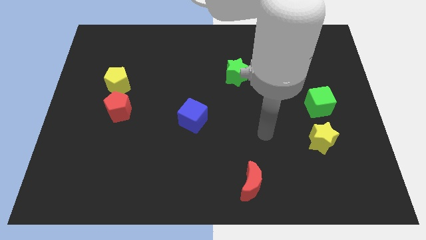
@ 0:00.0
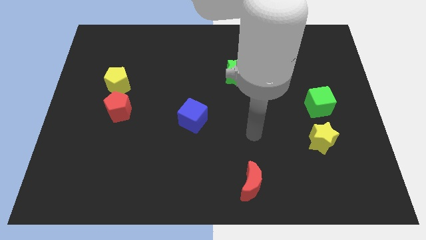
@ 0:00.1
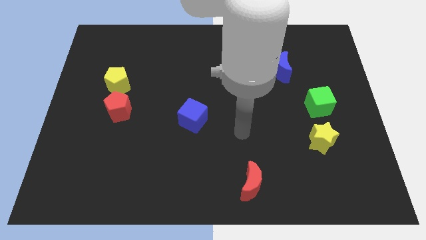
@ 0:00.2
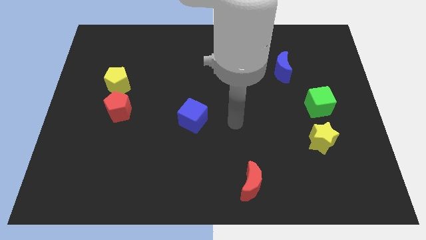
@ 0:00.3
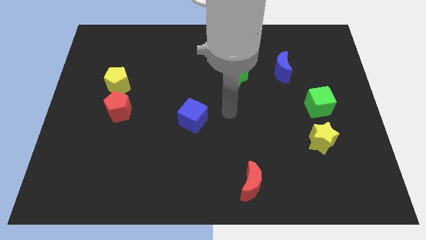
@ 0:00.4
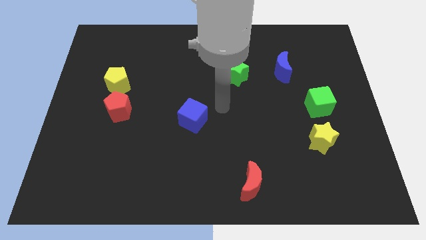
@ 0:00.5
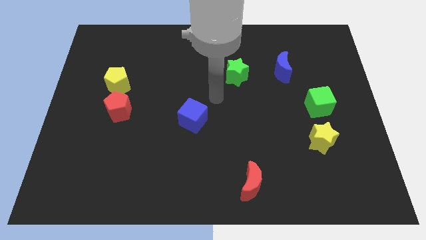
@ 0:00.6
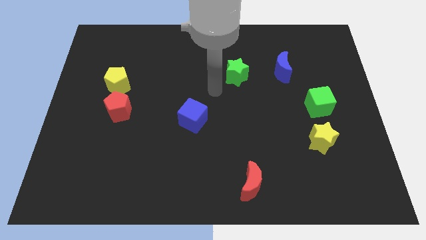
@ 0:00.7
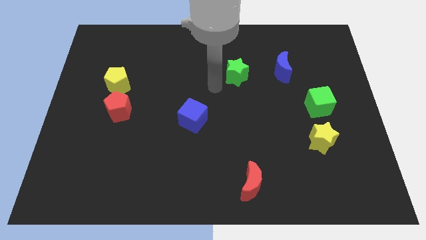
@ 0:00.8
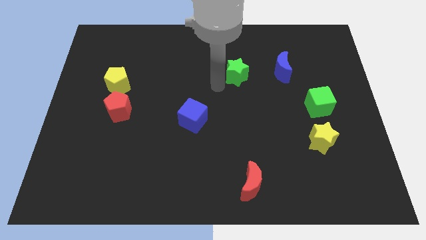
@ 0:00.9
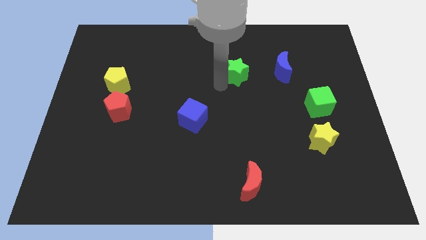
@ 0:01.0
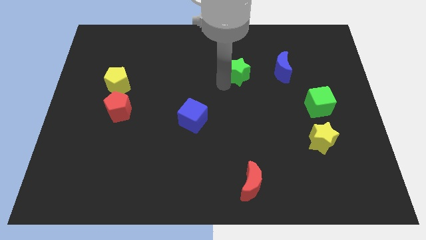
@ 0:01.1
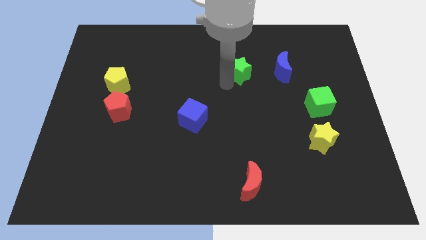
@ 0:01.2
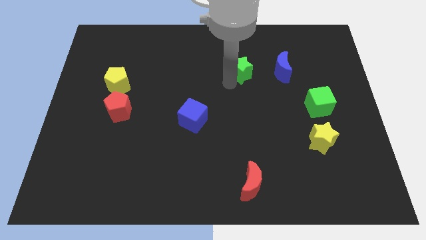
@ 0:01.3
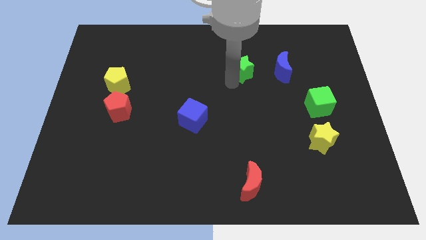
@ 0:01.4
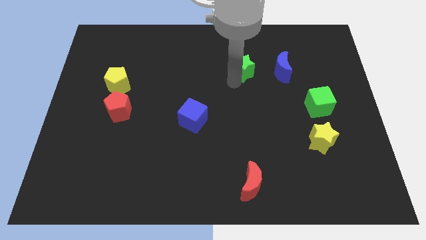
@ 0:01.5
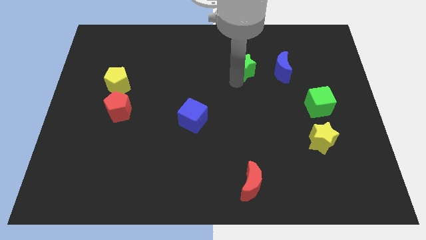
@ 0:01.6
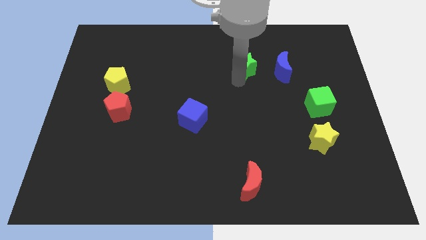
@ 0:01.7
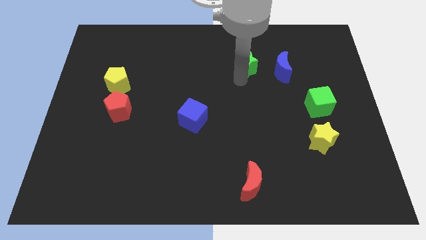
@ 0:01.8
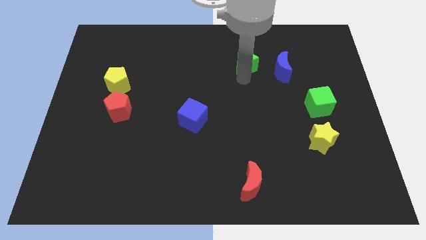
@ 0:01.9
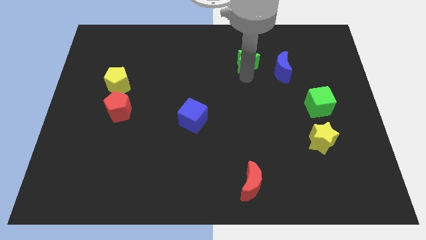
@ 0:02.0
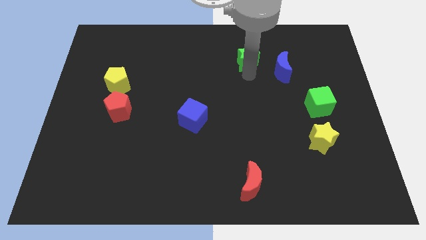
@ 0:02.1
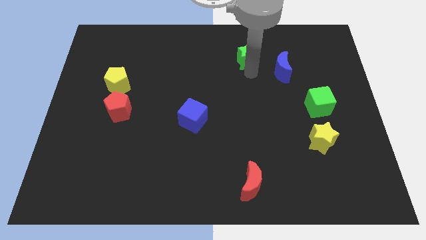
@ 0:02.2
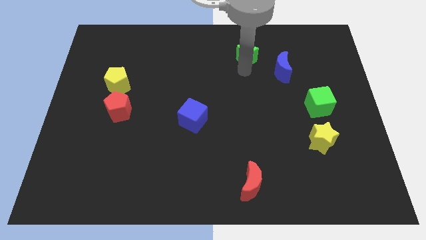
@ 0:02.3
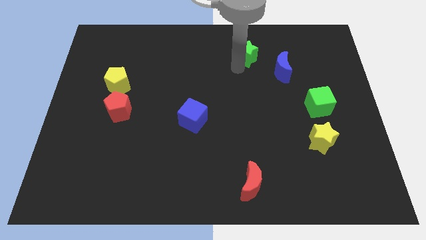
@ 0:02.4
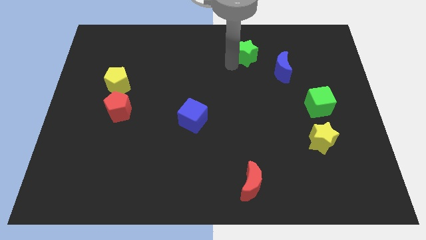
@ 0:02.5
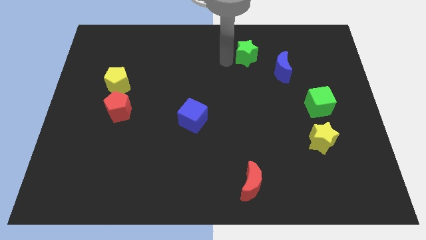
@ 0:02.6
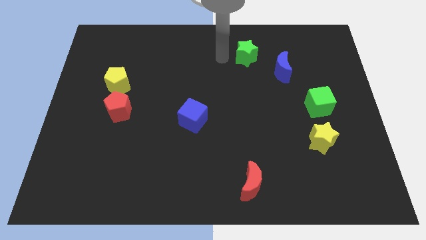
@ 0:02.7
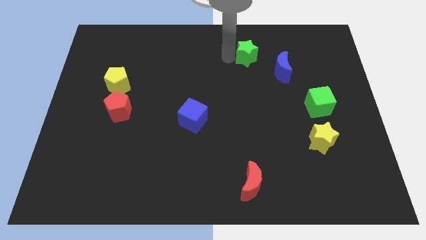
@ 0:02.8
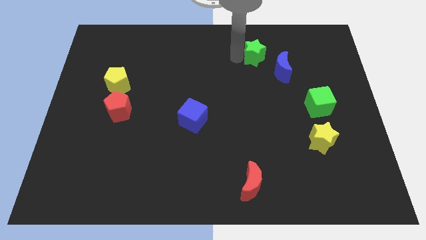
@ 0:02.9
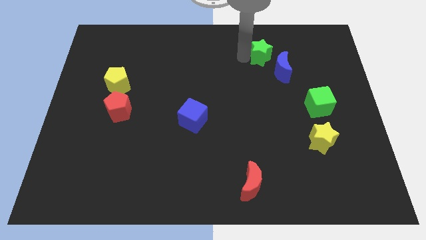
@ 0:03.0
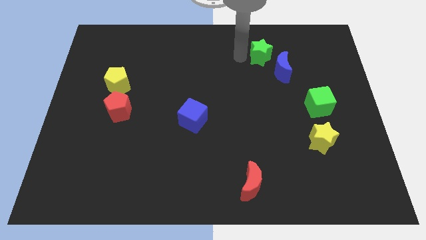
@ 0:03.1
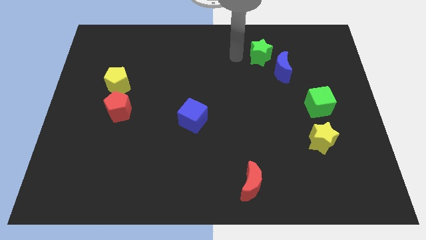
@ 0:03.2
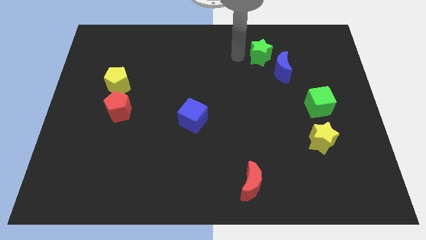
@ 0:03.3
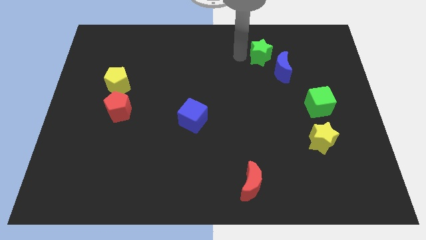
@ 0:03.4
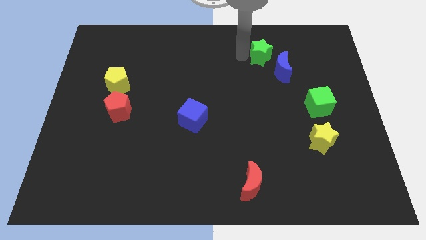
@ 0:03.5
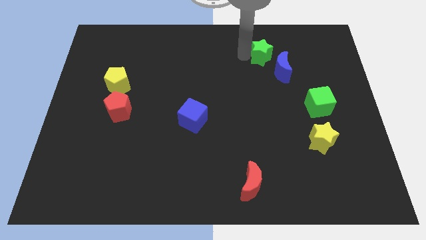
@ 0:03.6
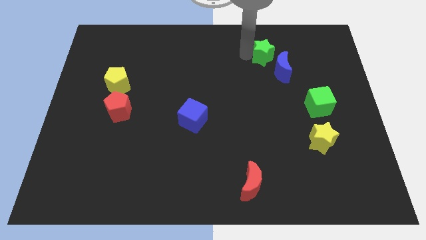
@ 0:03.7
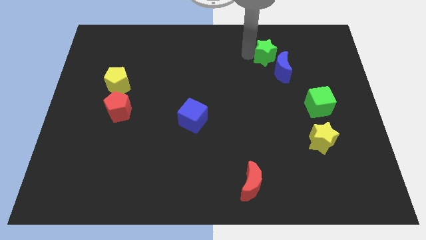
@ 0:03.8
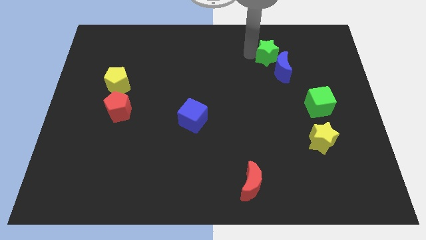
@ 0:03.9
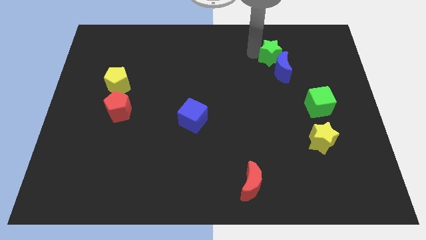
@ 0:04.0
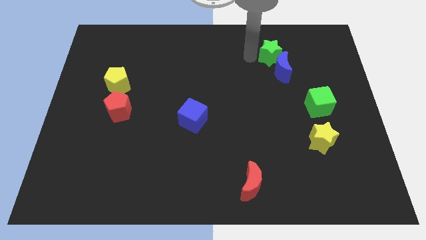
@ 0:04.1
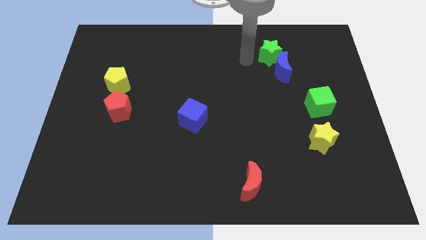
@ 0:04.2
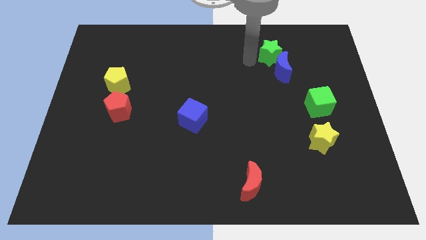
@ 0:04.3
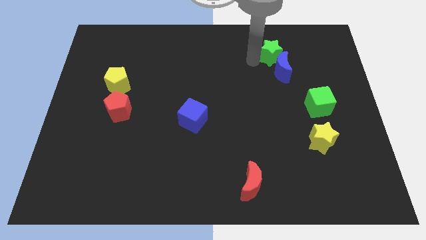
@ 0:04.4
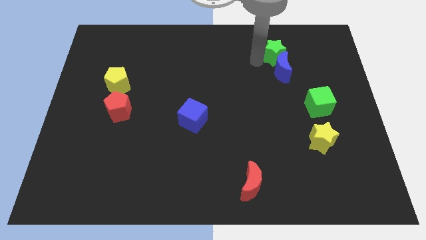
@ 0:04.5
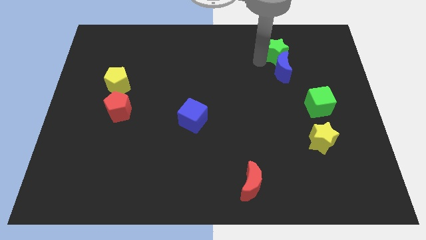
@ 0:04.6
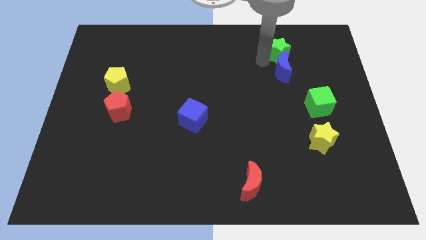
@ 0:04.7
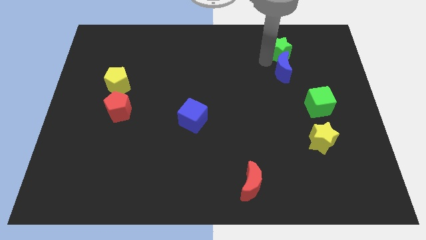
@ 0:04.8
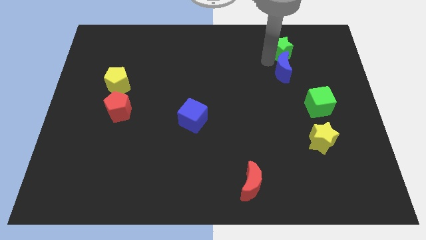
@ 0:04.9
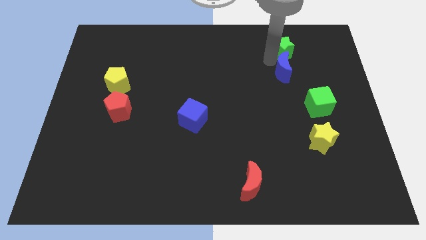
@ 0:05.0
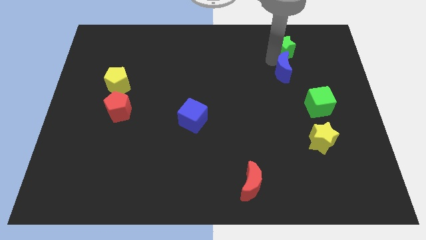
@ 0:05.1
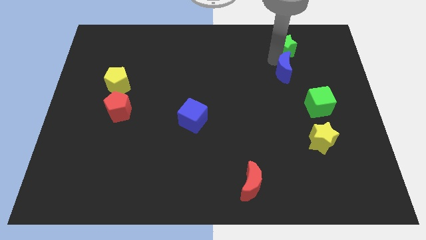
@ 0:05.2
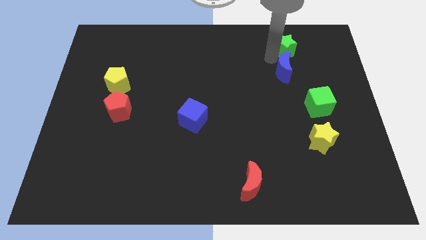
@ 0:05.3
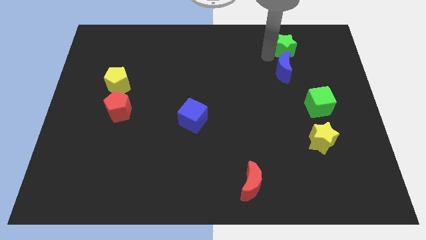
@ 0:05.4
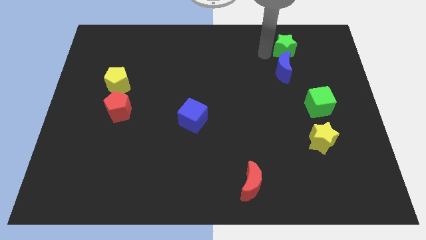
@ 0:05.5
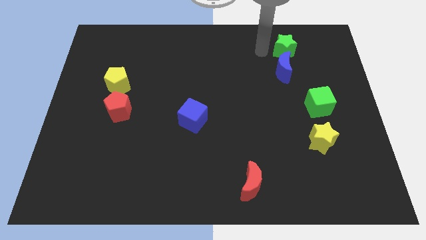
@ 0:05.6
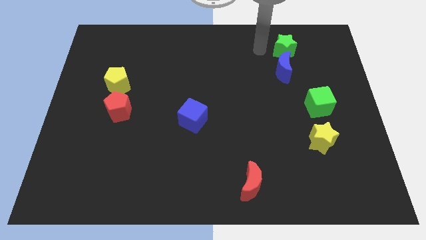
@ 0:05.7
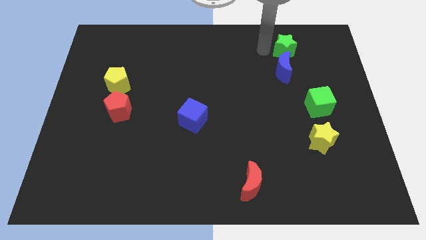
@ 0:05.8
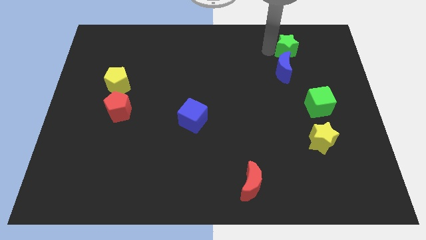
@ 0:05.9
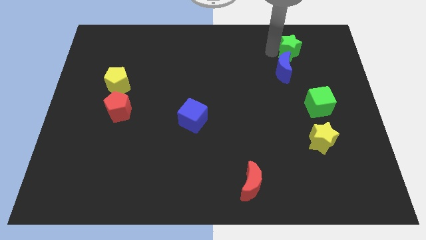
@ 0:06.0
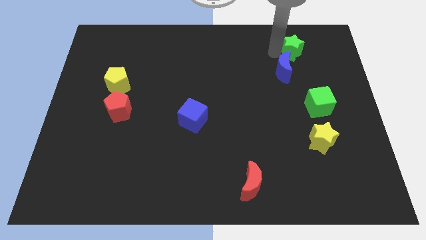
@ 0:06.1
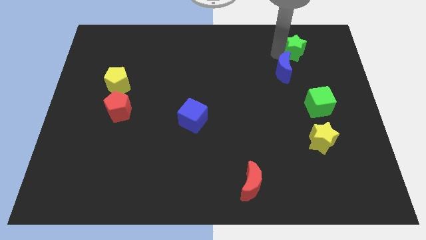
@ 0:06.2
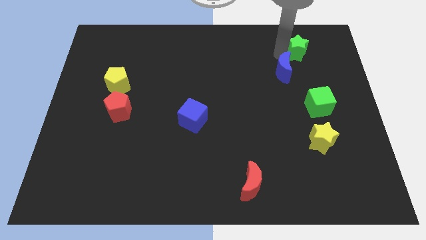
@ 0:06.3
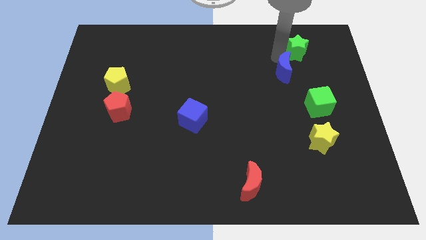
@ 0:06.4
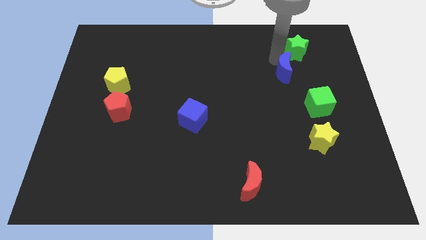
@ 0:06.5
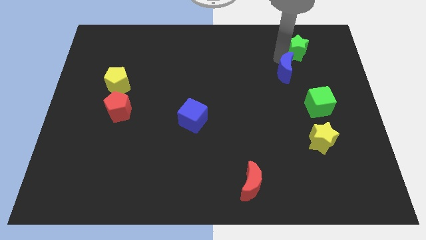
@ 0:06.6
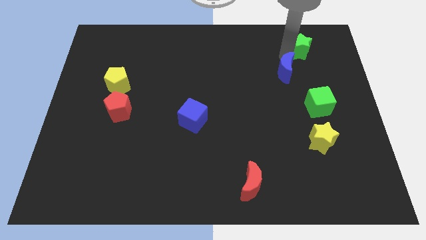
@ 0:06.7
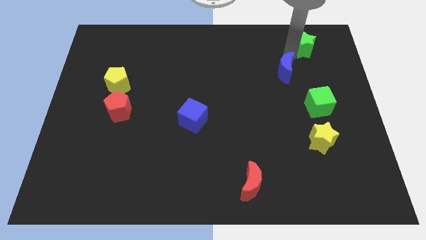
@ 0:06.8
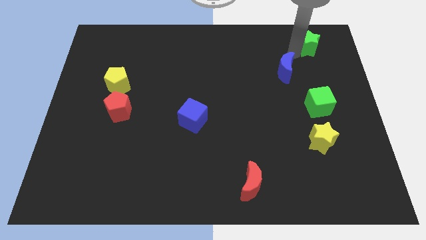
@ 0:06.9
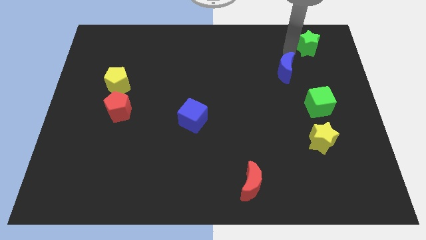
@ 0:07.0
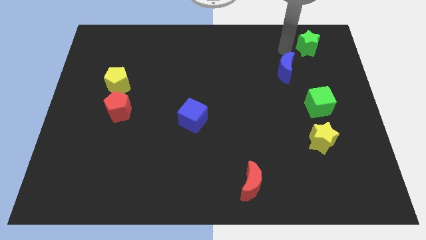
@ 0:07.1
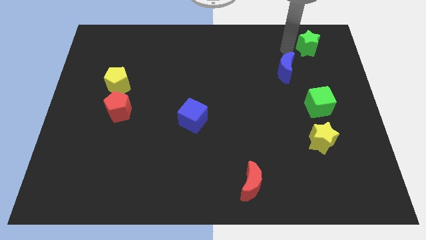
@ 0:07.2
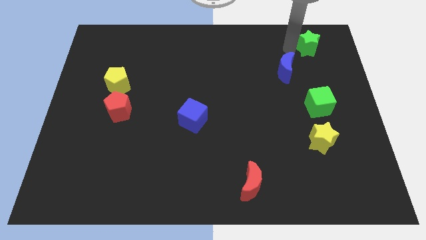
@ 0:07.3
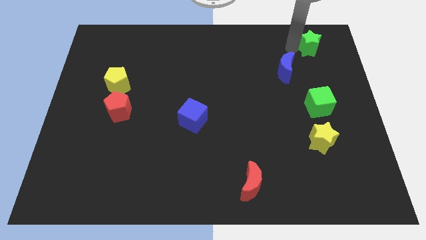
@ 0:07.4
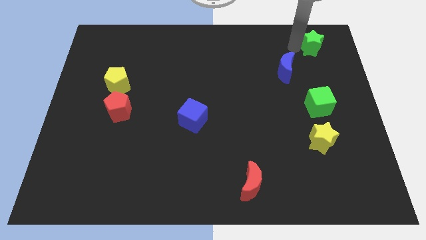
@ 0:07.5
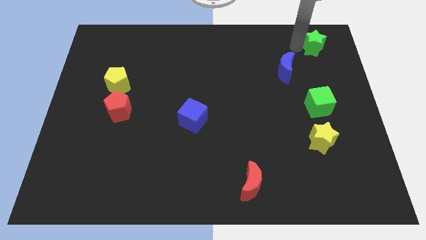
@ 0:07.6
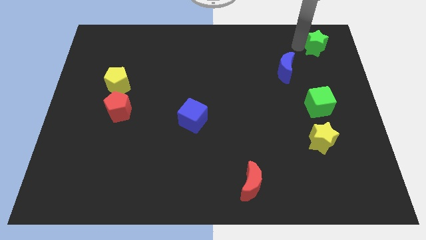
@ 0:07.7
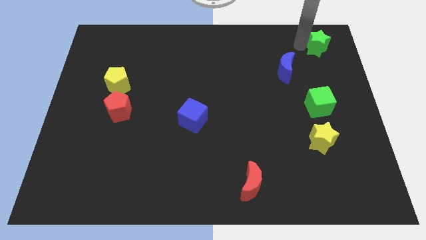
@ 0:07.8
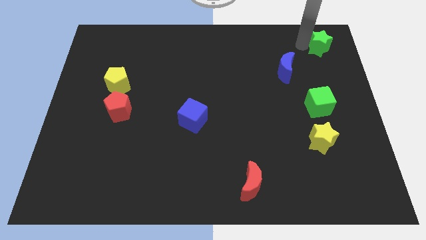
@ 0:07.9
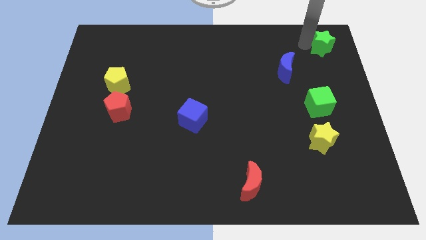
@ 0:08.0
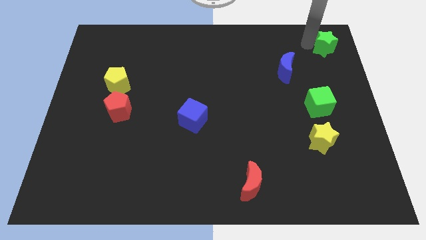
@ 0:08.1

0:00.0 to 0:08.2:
move the green star to the upper right corner
